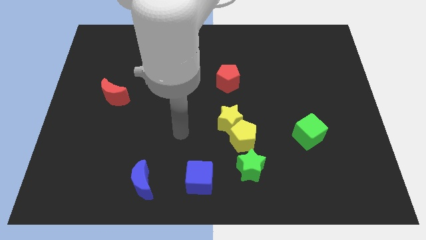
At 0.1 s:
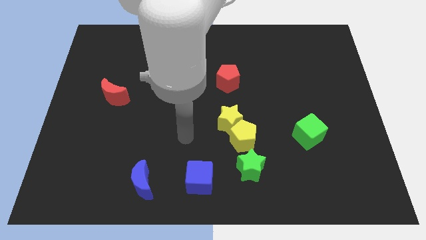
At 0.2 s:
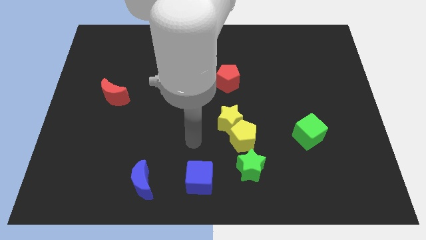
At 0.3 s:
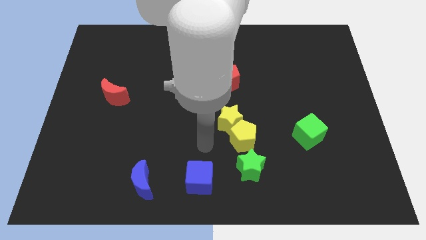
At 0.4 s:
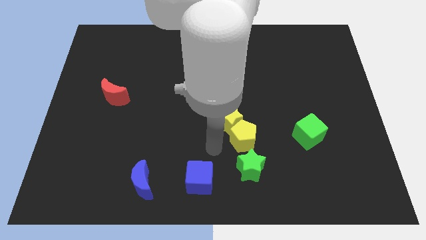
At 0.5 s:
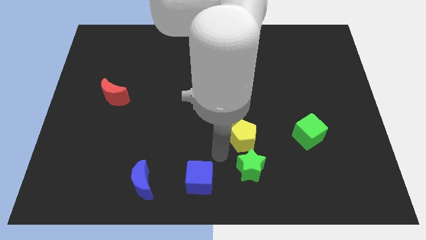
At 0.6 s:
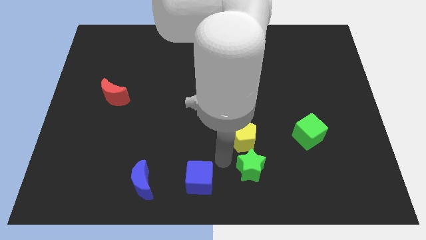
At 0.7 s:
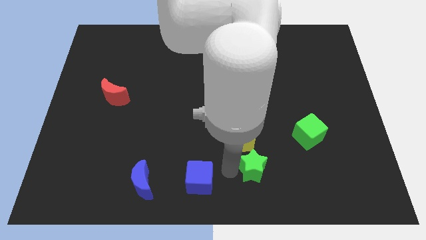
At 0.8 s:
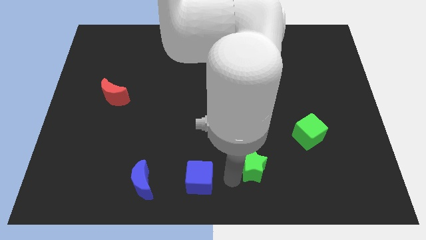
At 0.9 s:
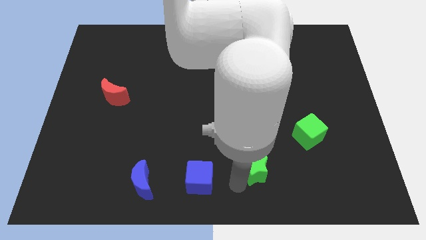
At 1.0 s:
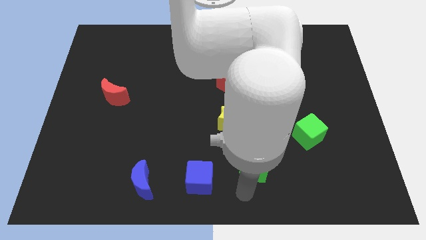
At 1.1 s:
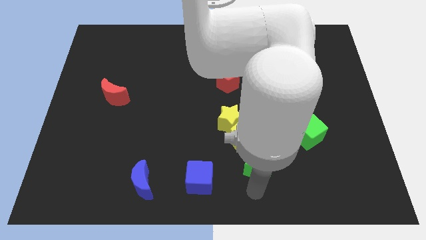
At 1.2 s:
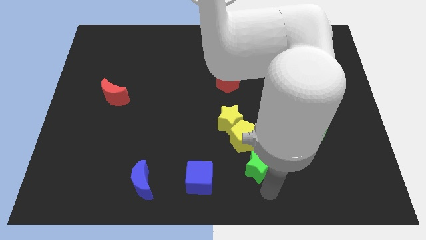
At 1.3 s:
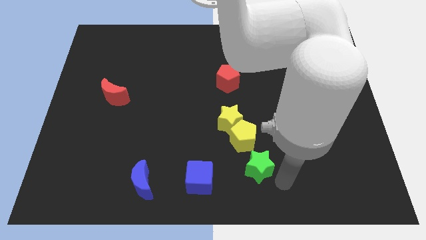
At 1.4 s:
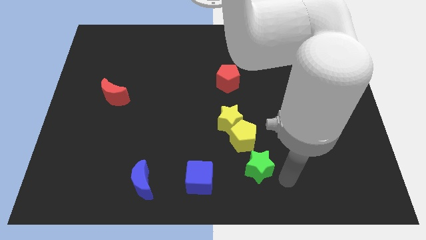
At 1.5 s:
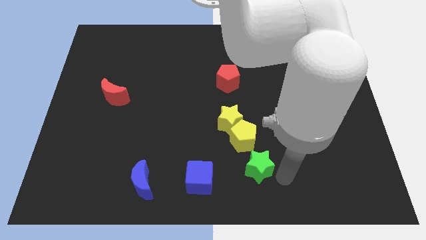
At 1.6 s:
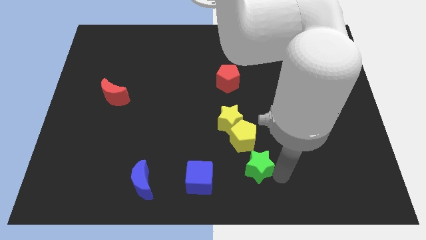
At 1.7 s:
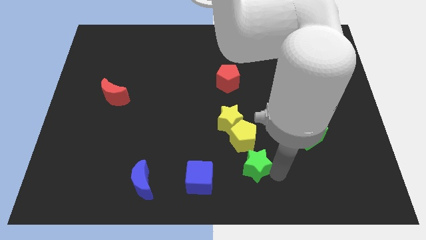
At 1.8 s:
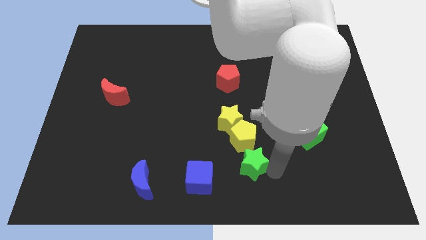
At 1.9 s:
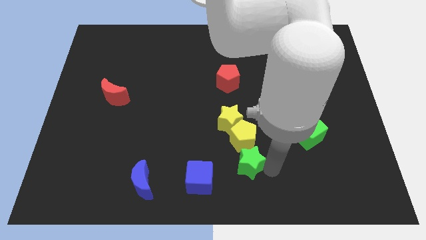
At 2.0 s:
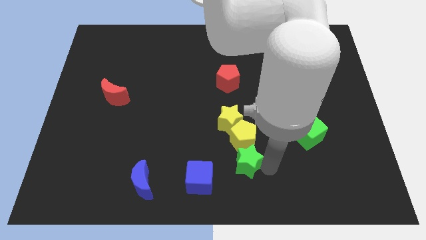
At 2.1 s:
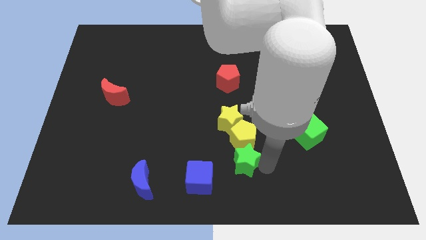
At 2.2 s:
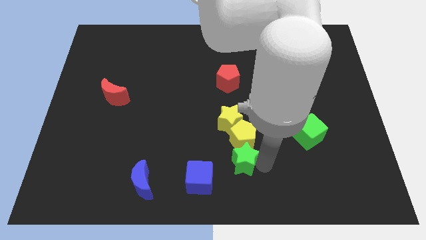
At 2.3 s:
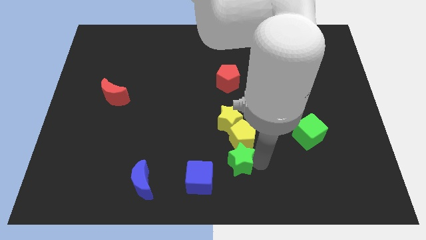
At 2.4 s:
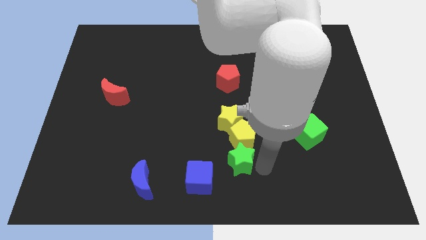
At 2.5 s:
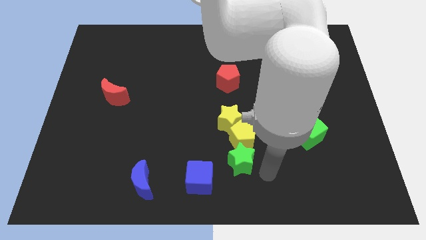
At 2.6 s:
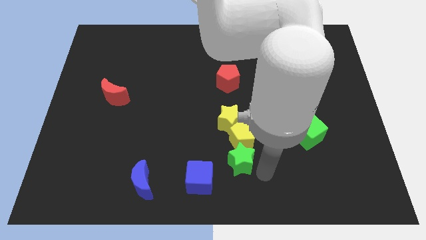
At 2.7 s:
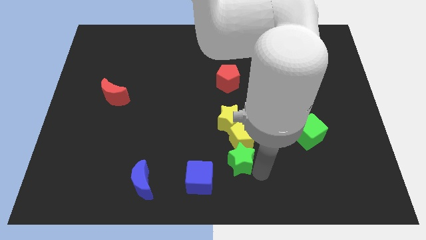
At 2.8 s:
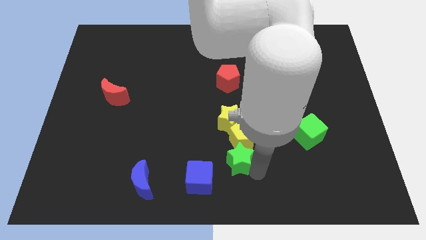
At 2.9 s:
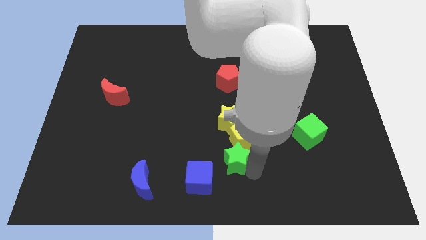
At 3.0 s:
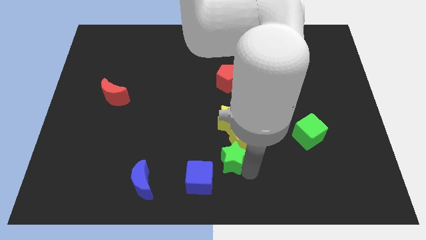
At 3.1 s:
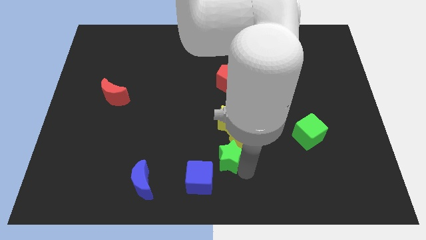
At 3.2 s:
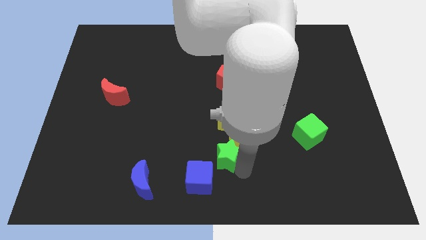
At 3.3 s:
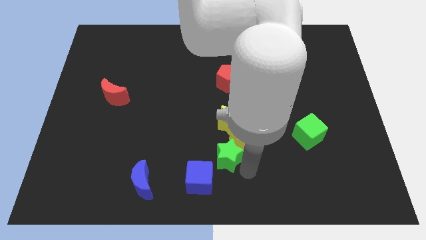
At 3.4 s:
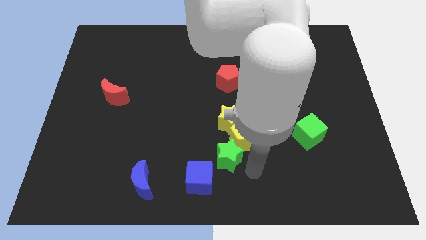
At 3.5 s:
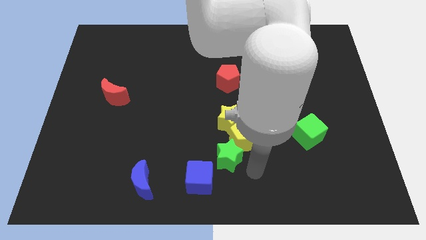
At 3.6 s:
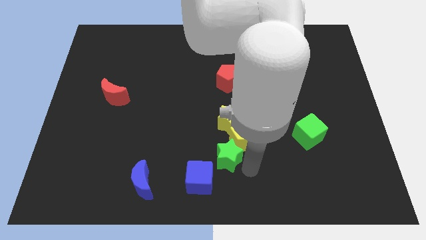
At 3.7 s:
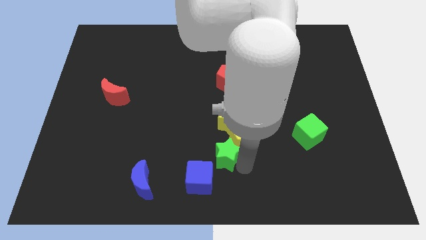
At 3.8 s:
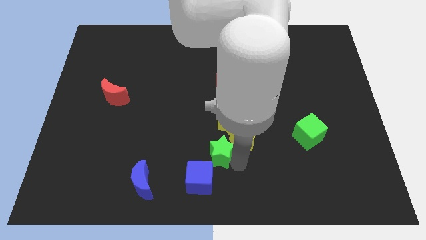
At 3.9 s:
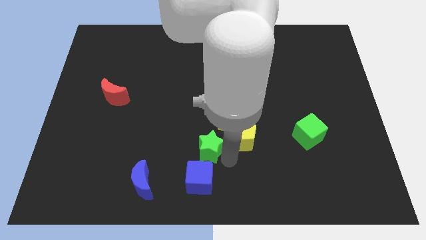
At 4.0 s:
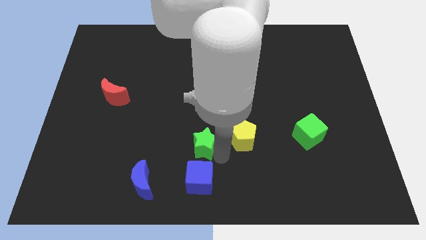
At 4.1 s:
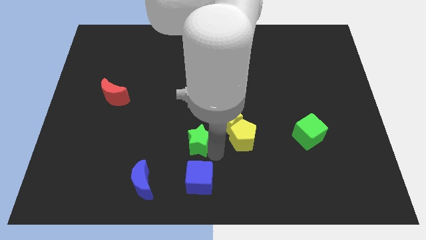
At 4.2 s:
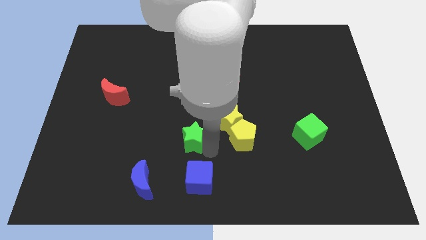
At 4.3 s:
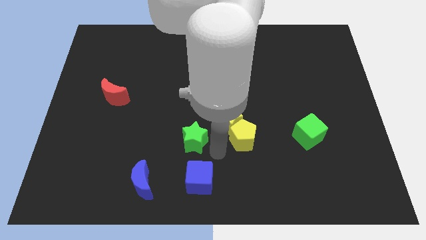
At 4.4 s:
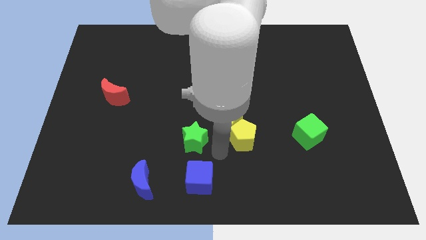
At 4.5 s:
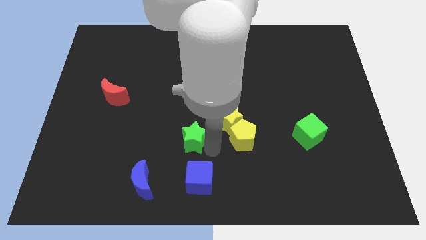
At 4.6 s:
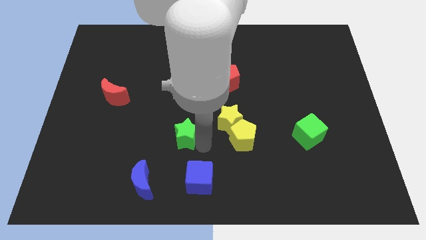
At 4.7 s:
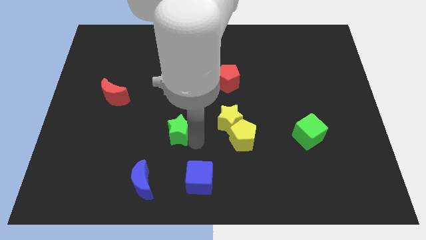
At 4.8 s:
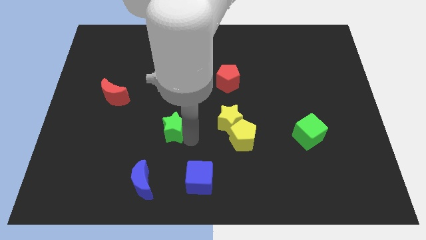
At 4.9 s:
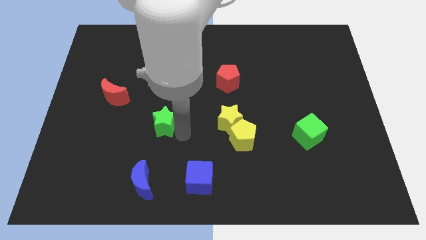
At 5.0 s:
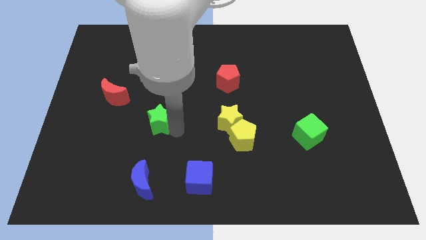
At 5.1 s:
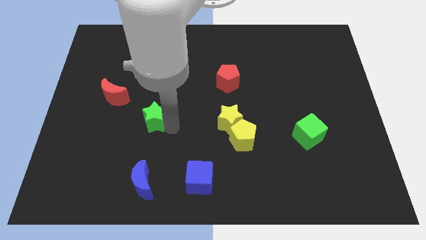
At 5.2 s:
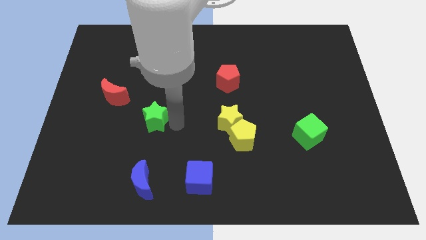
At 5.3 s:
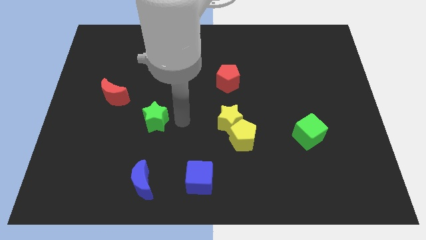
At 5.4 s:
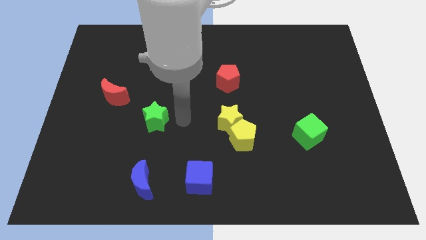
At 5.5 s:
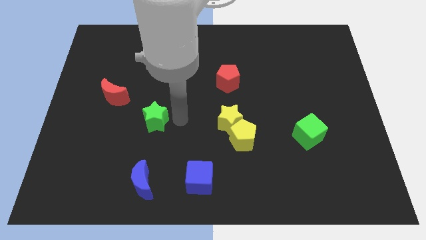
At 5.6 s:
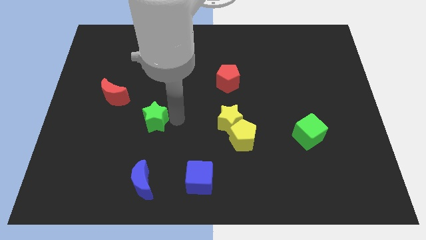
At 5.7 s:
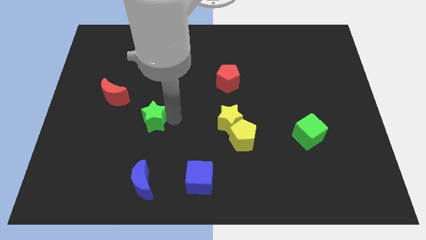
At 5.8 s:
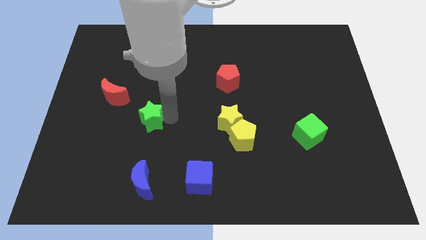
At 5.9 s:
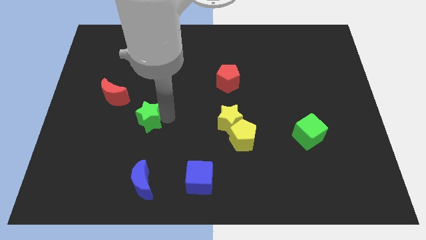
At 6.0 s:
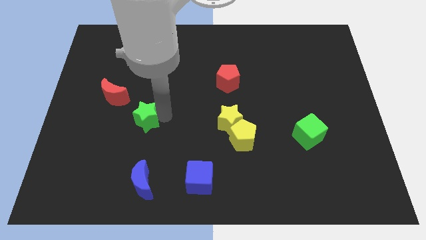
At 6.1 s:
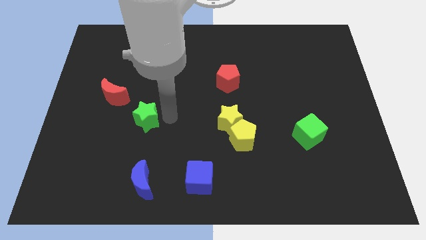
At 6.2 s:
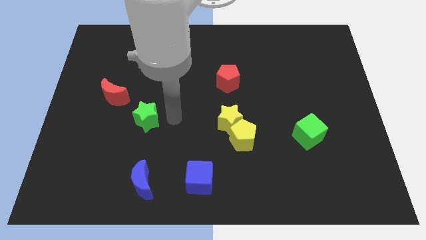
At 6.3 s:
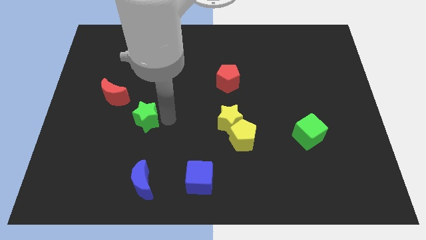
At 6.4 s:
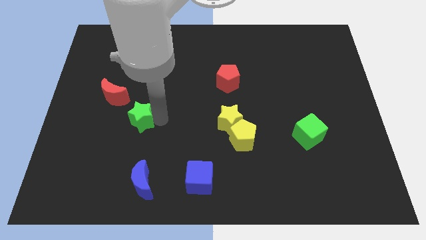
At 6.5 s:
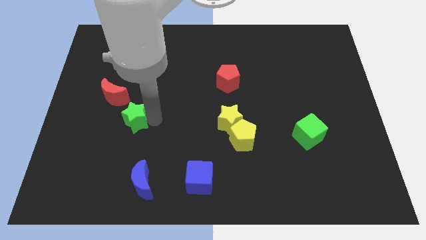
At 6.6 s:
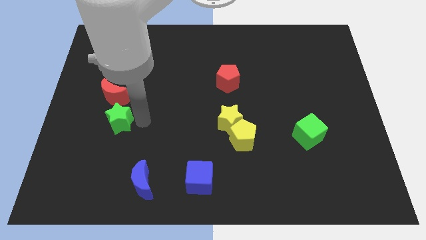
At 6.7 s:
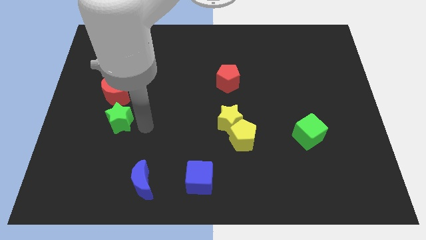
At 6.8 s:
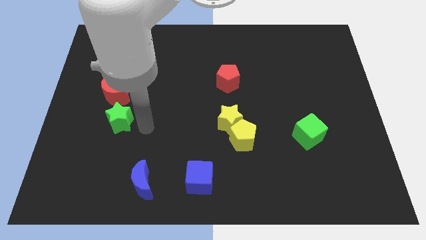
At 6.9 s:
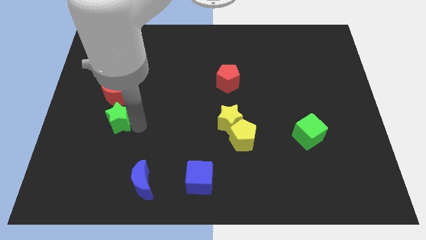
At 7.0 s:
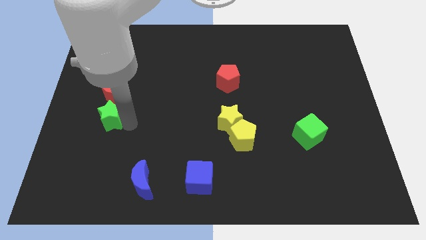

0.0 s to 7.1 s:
slide the green star to the bottom left of the red moon

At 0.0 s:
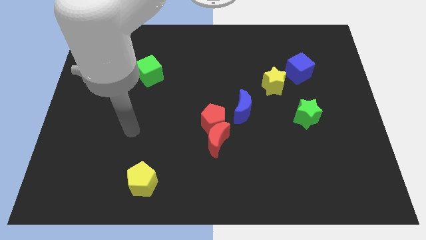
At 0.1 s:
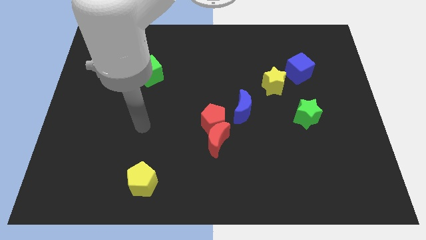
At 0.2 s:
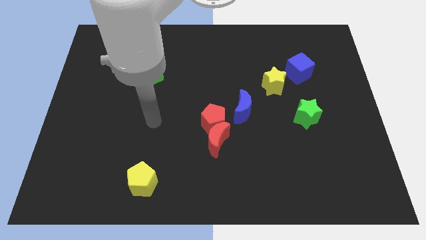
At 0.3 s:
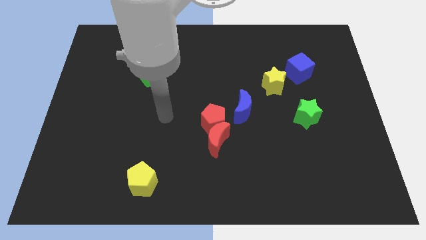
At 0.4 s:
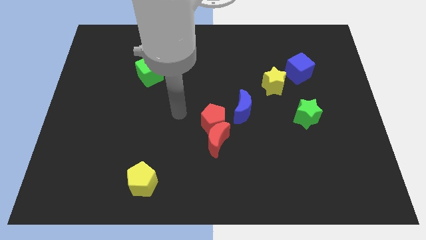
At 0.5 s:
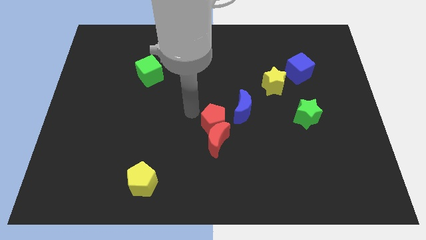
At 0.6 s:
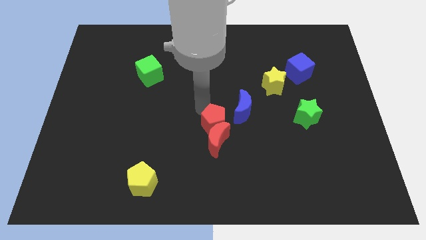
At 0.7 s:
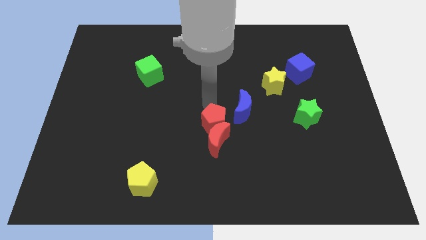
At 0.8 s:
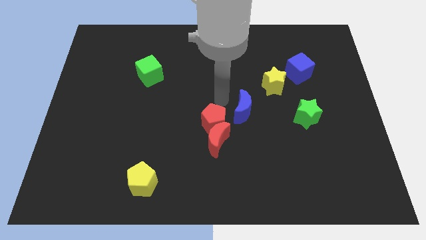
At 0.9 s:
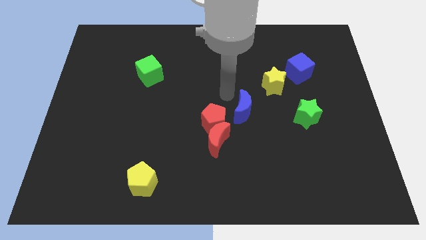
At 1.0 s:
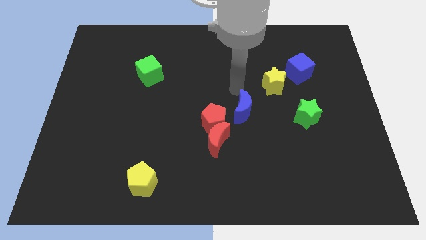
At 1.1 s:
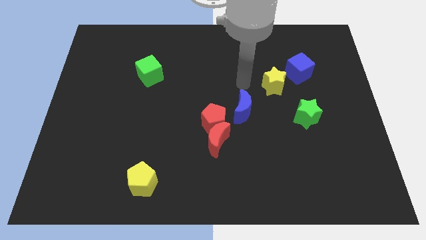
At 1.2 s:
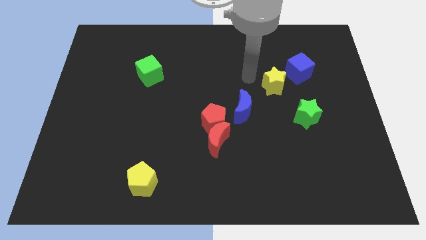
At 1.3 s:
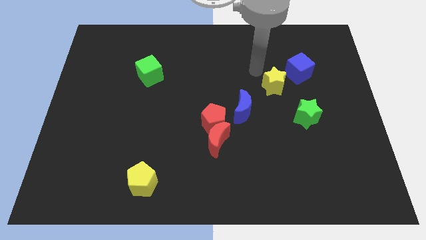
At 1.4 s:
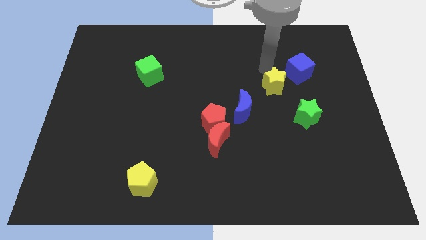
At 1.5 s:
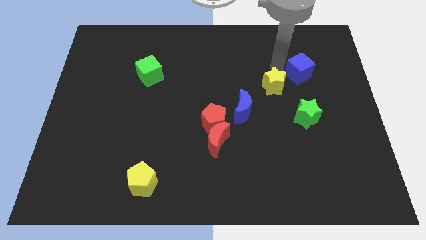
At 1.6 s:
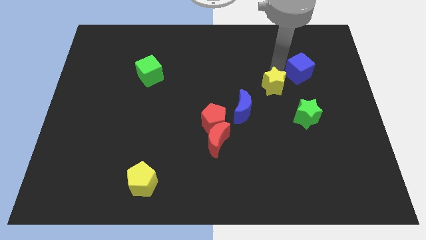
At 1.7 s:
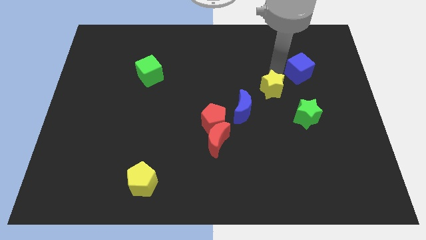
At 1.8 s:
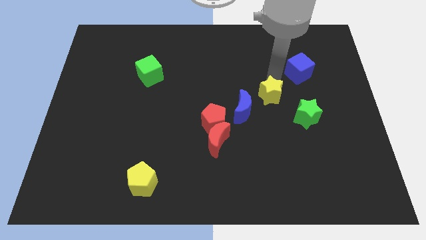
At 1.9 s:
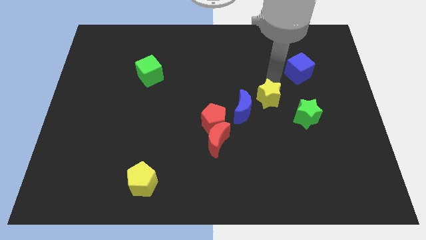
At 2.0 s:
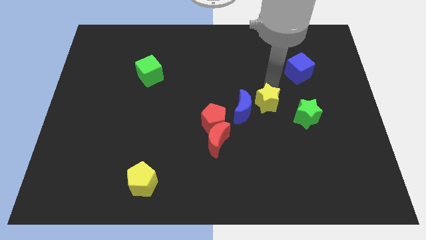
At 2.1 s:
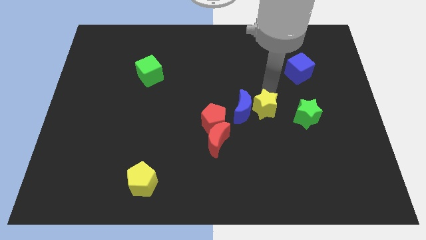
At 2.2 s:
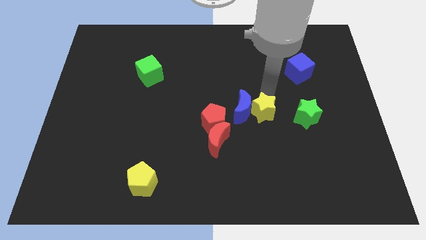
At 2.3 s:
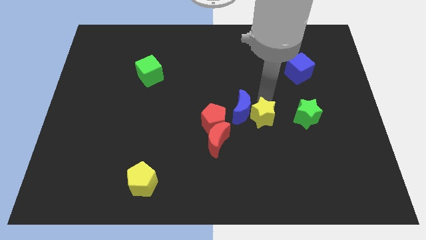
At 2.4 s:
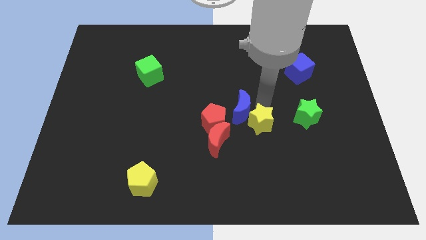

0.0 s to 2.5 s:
push the yellow star to the right of the red moon
